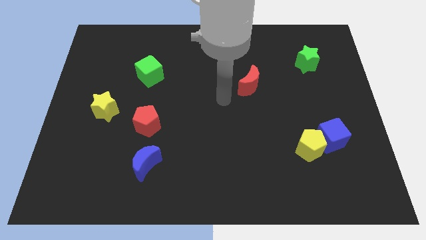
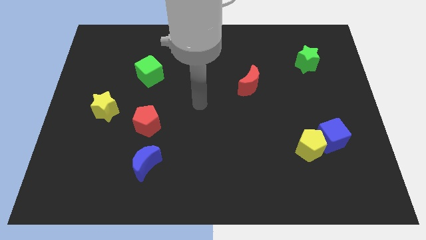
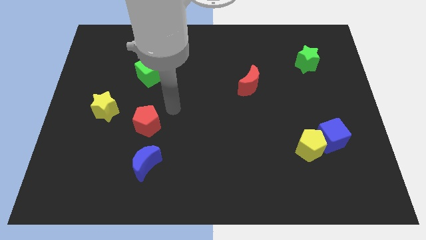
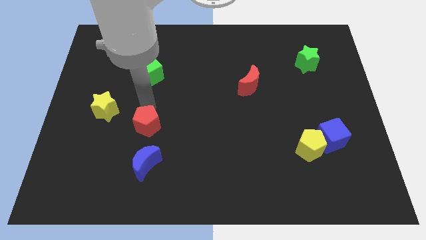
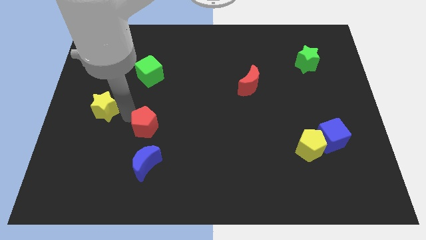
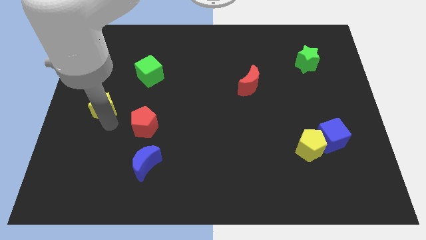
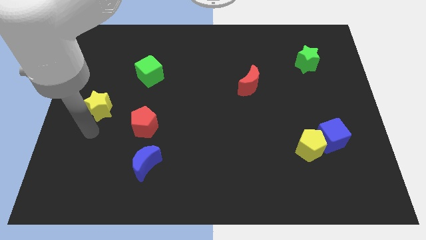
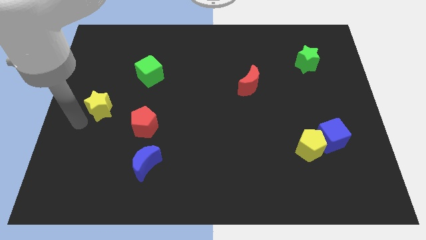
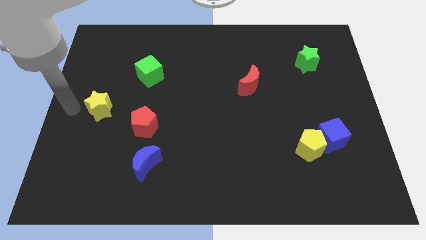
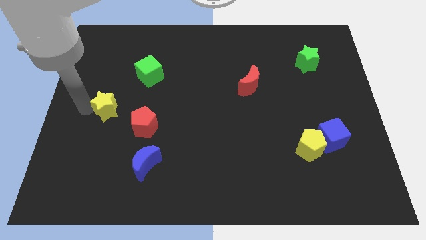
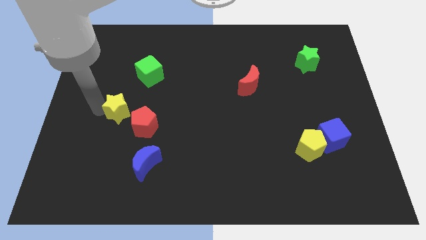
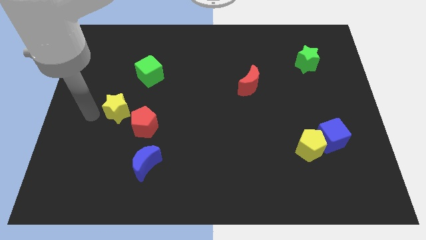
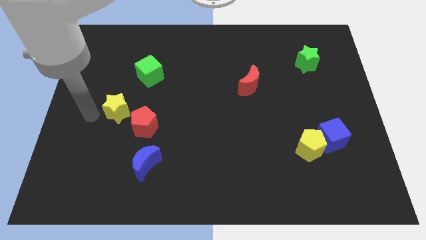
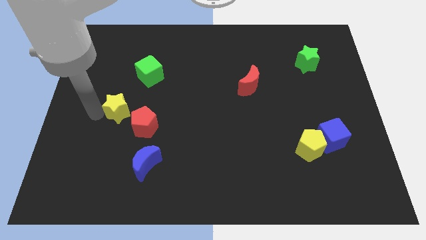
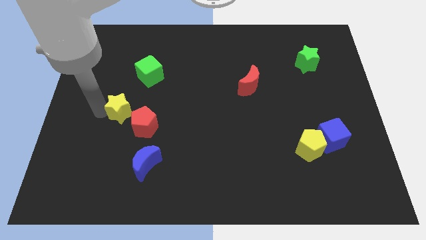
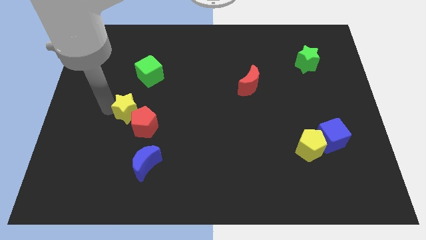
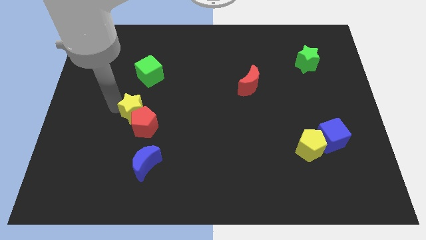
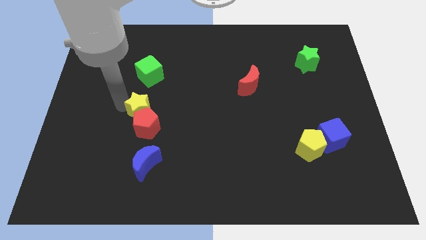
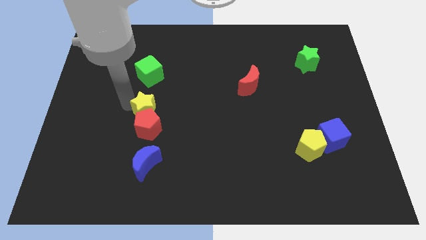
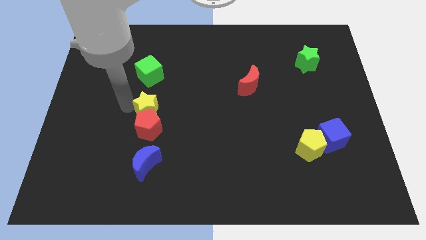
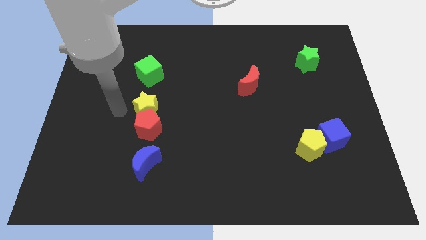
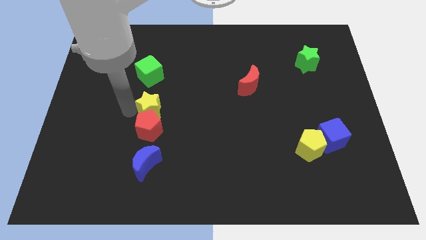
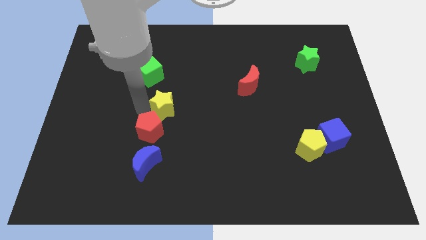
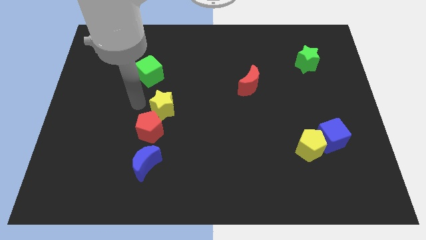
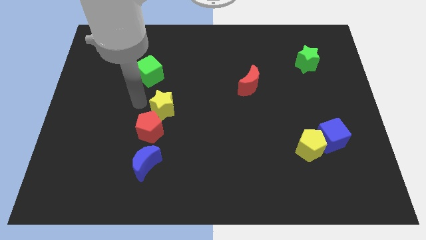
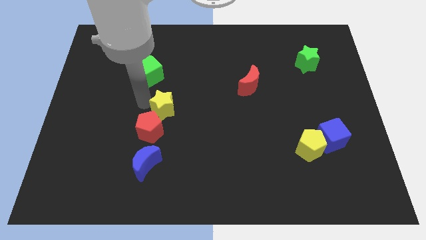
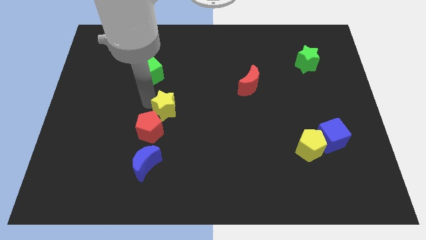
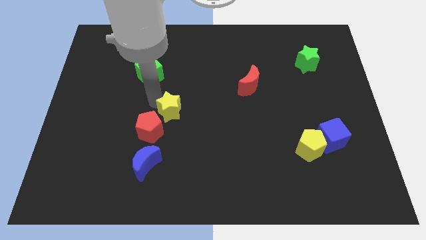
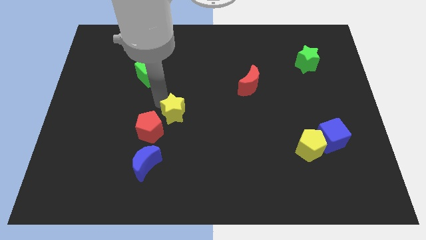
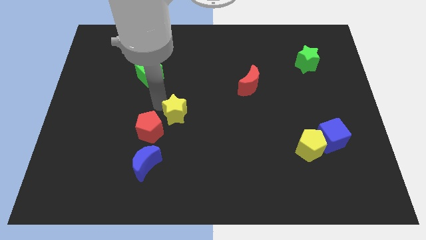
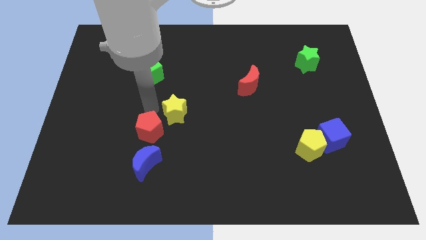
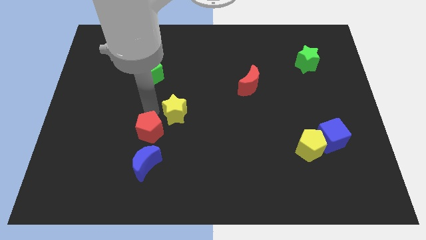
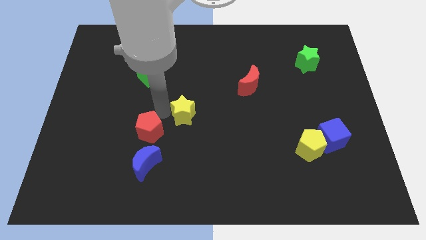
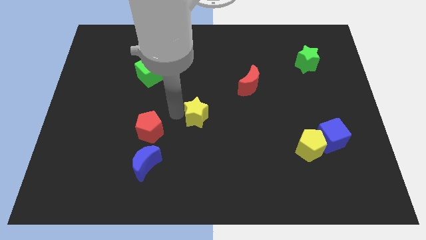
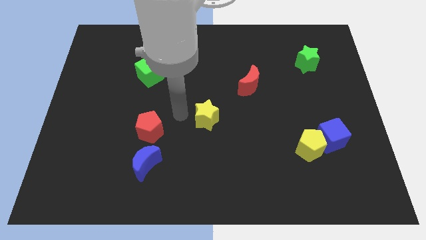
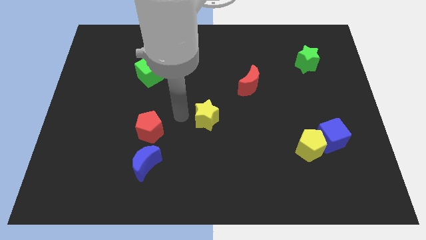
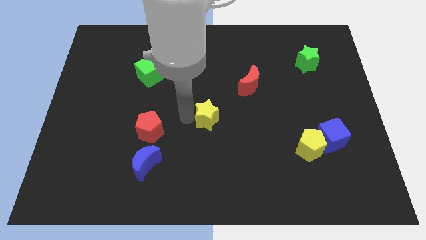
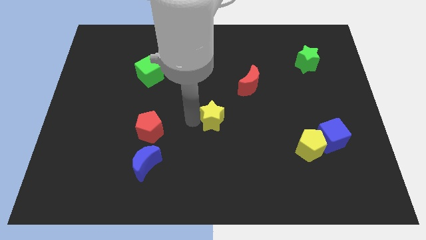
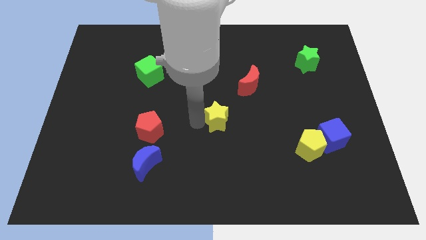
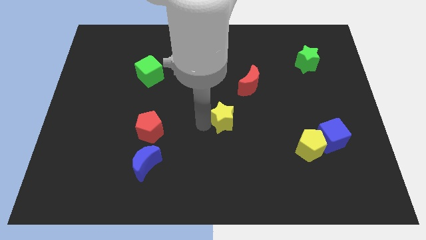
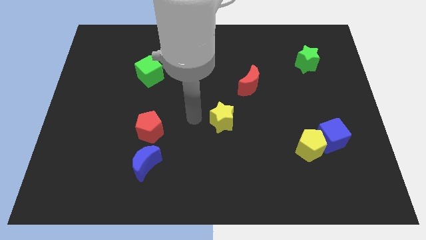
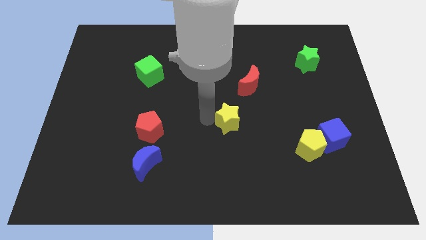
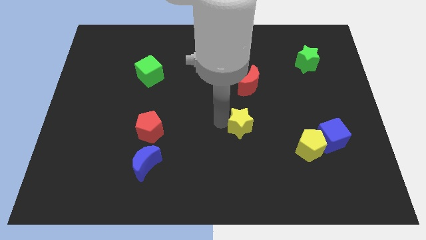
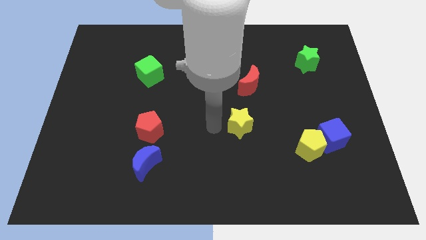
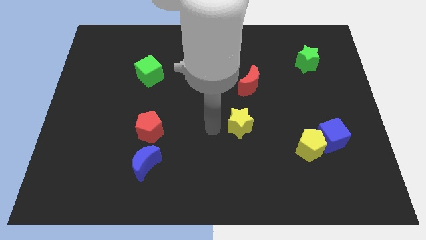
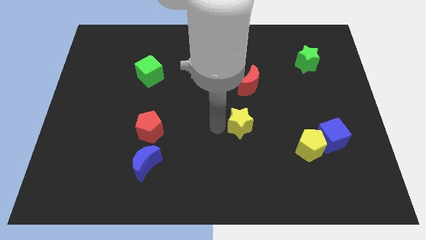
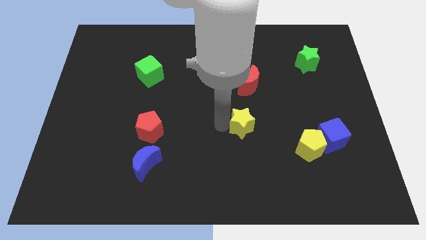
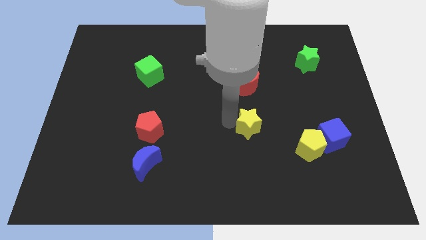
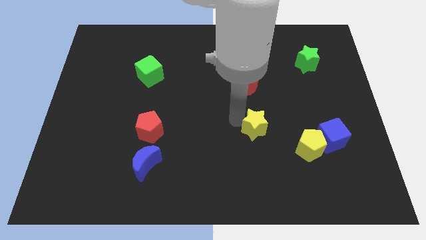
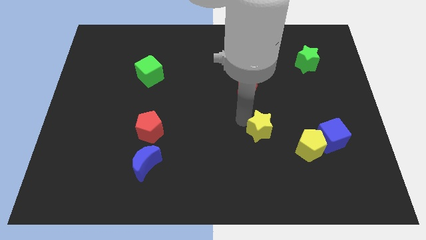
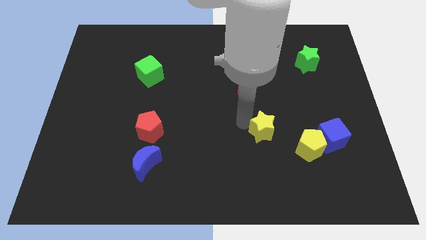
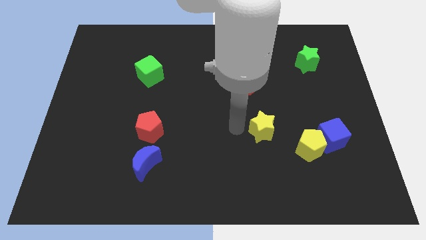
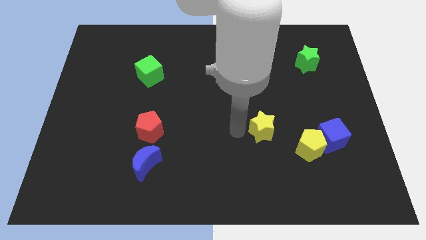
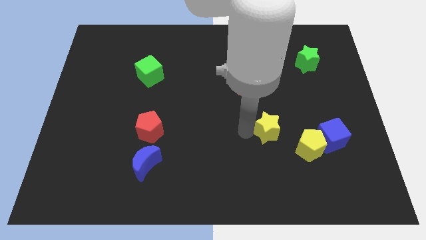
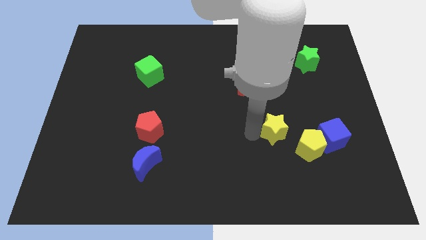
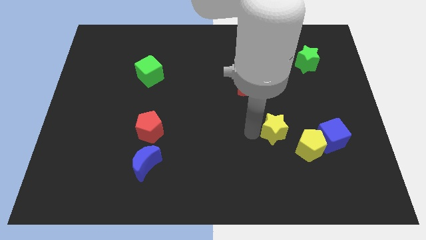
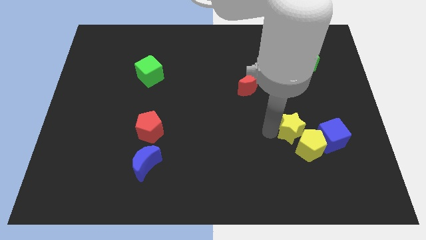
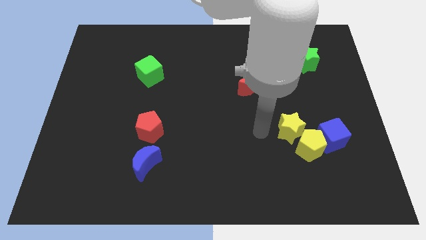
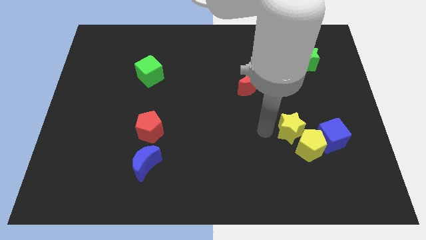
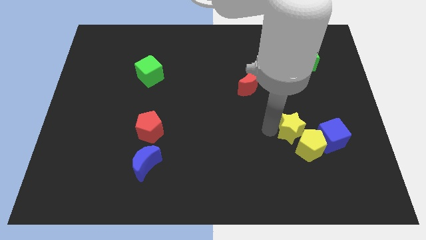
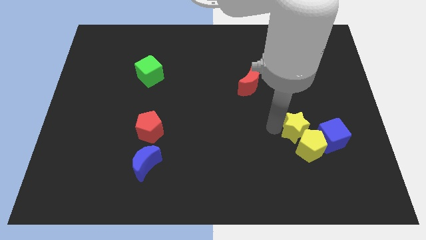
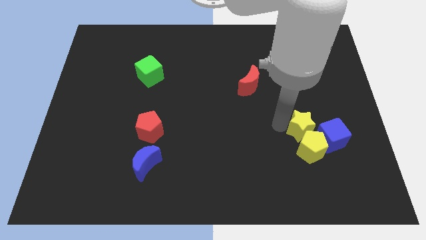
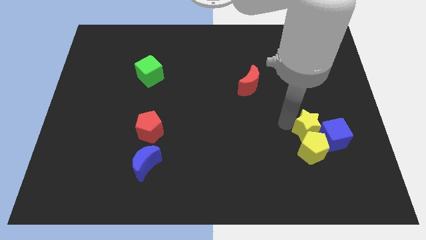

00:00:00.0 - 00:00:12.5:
push the yellow star to the blue cube

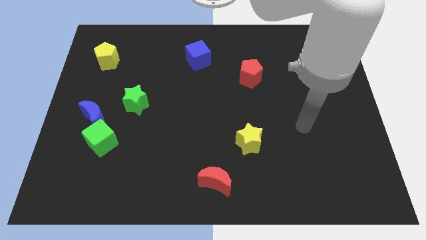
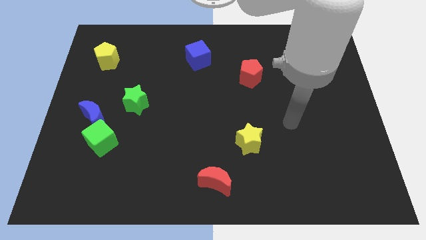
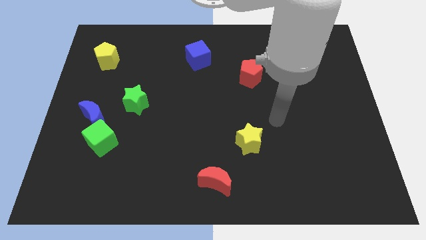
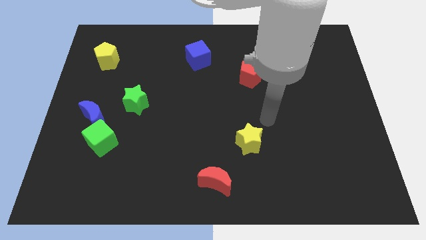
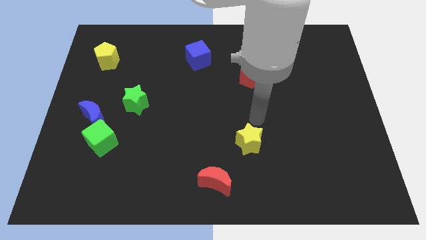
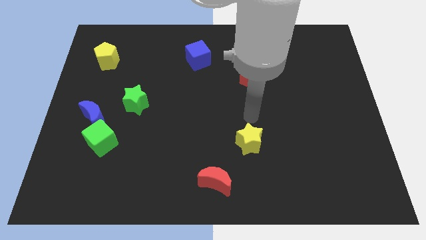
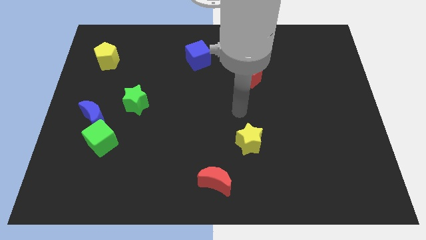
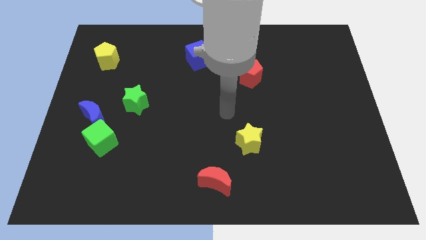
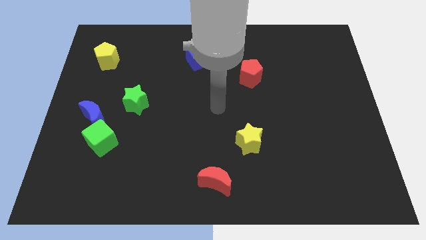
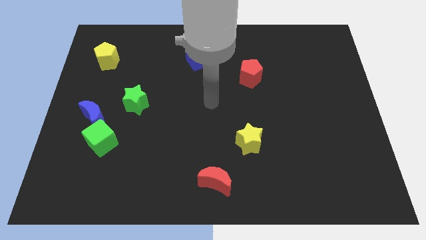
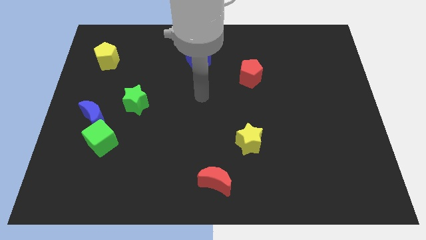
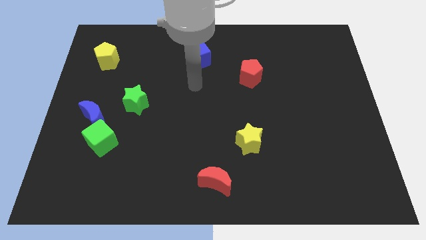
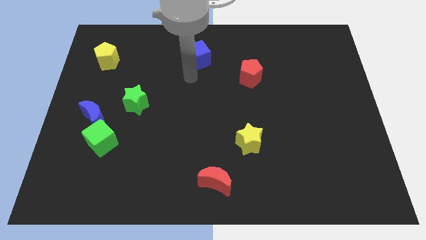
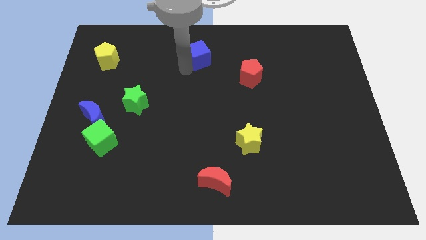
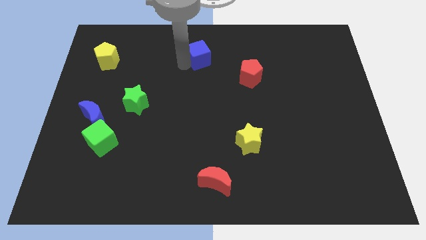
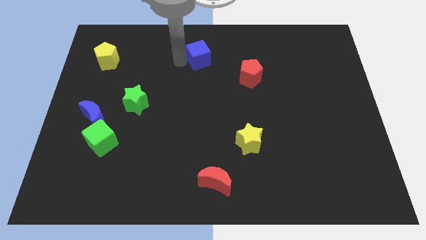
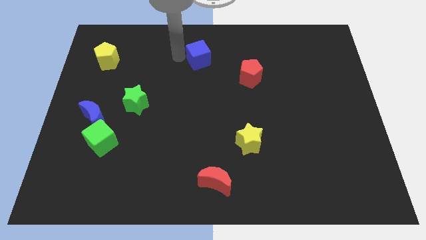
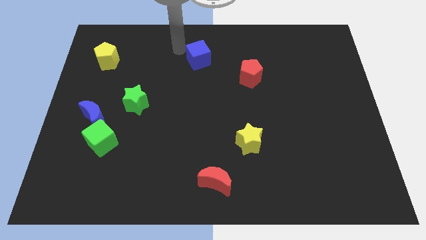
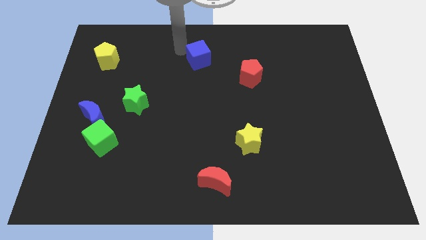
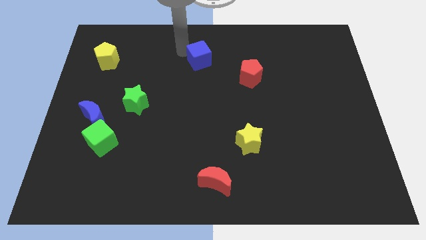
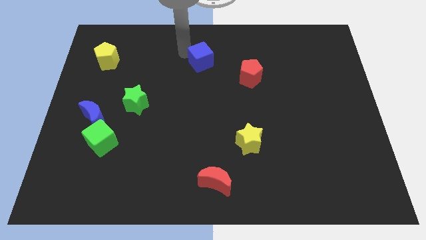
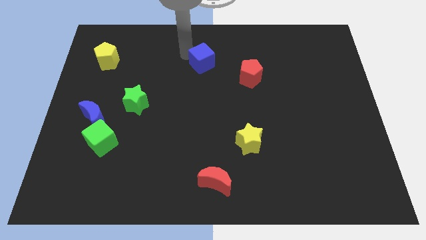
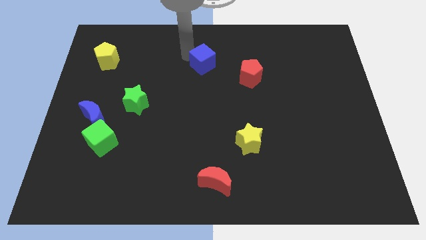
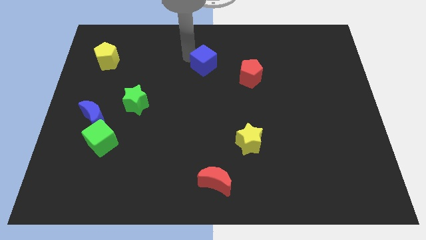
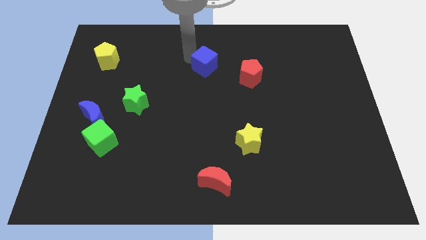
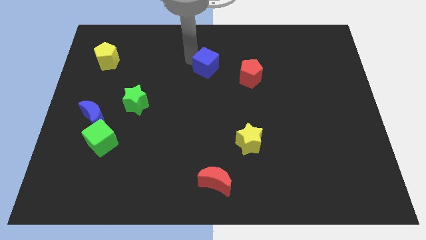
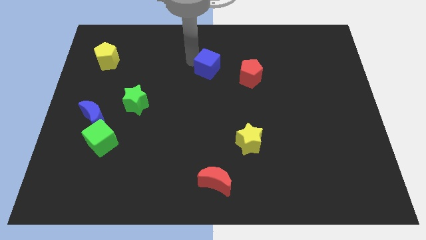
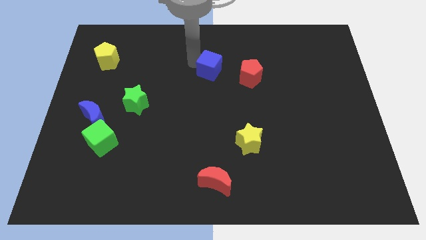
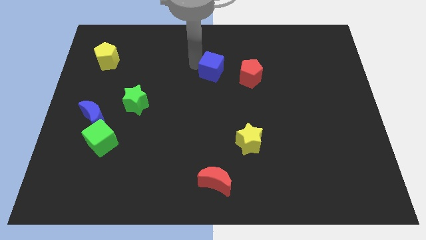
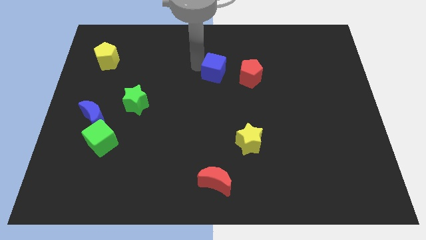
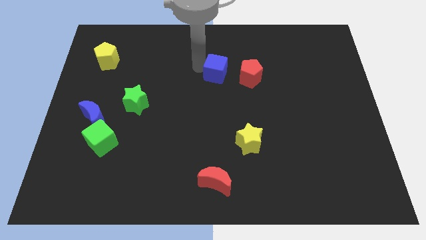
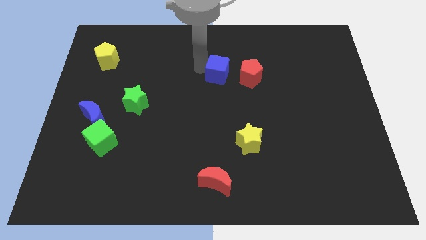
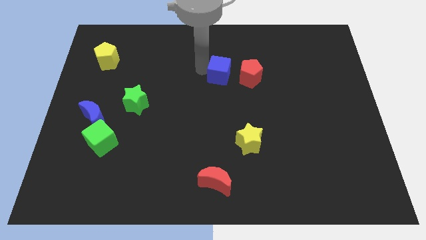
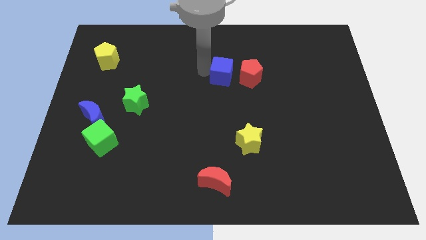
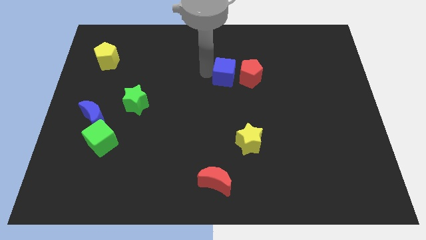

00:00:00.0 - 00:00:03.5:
move the blue cube to the red pentagon
